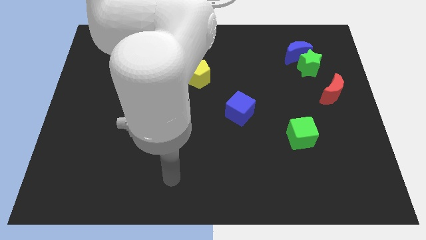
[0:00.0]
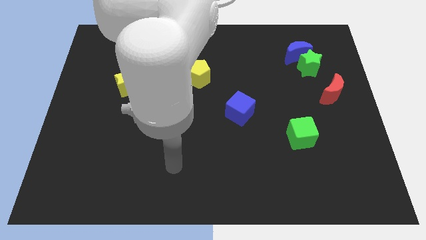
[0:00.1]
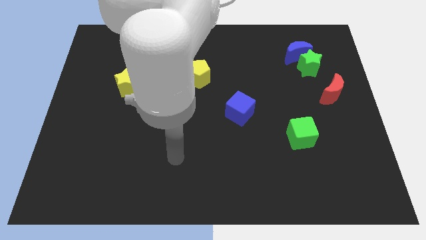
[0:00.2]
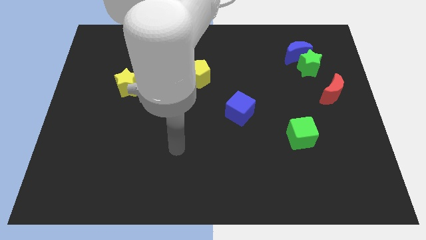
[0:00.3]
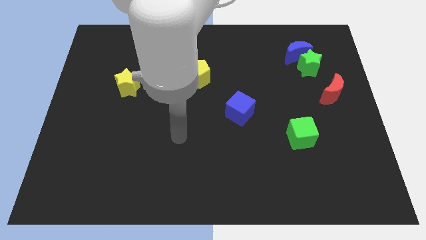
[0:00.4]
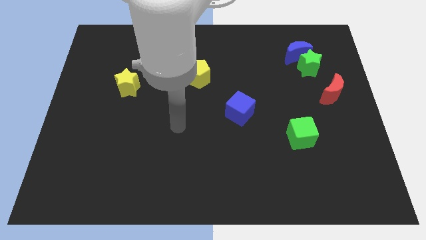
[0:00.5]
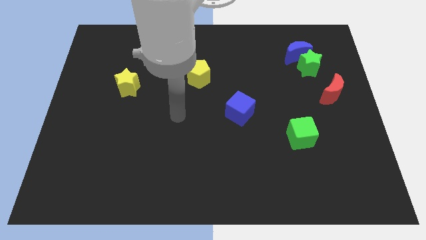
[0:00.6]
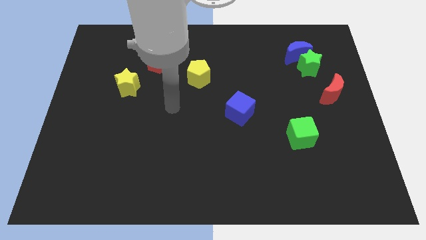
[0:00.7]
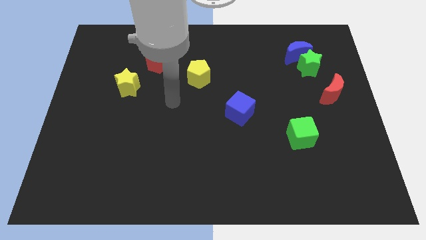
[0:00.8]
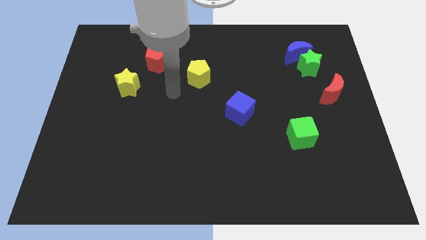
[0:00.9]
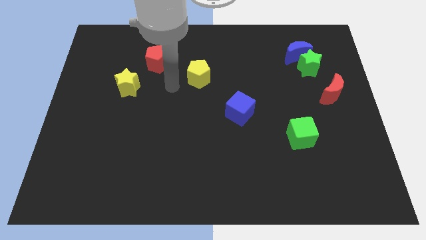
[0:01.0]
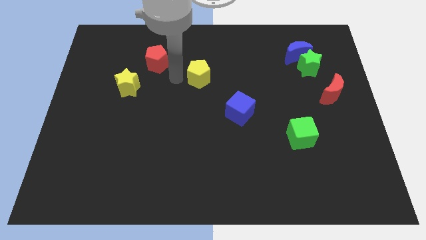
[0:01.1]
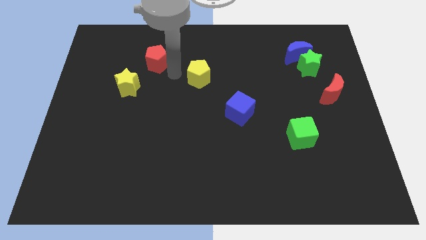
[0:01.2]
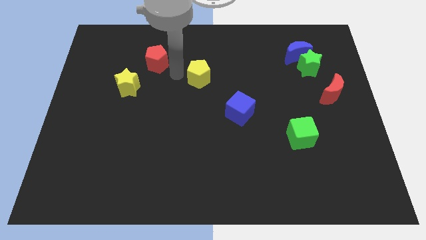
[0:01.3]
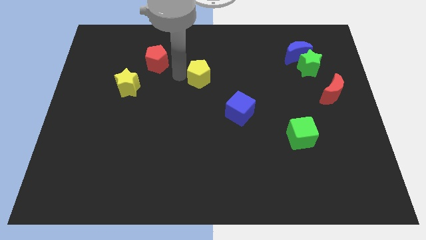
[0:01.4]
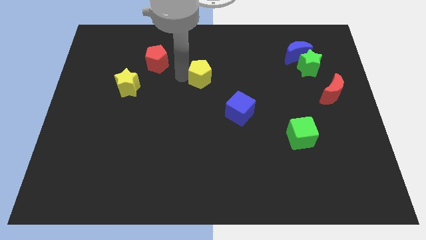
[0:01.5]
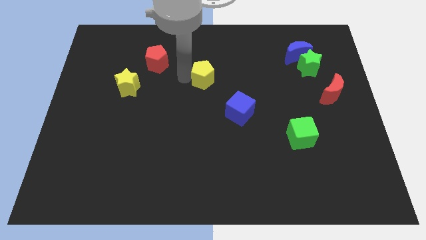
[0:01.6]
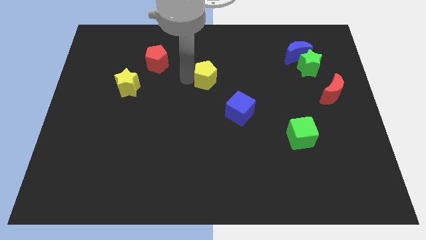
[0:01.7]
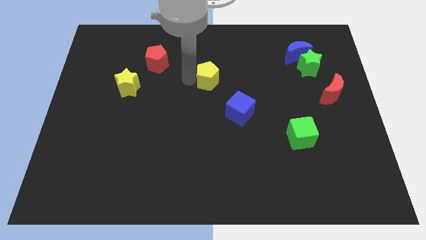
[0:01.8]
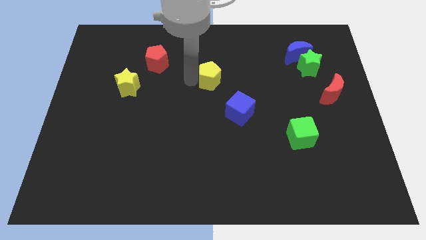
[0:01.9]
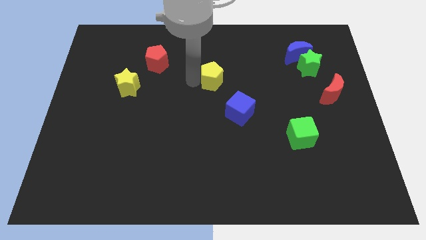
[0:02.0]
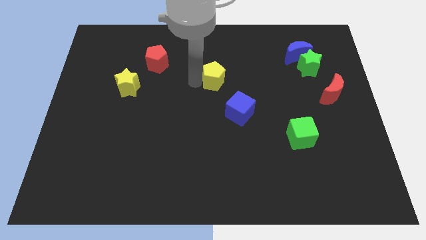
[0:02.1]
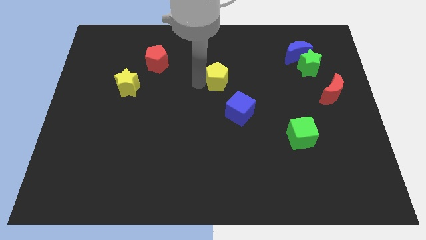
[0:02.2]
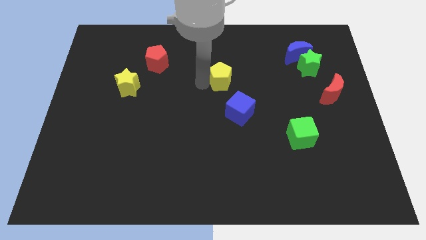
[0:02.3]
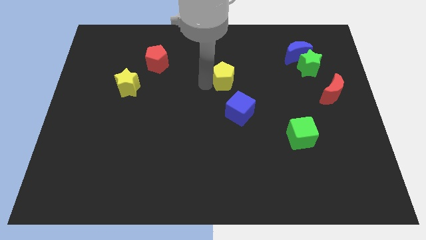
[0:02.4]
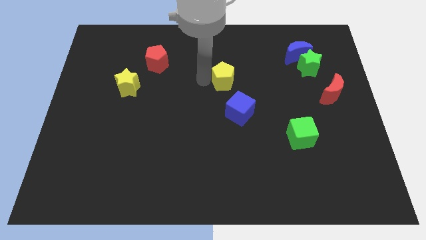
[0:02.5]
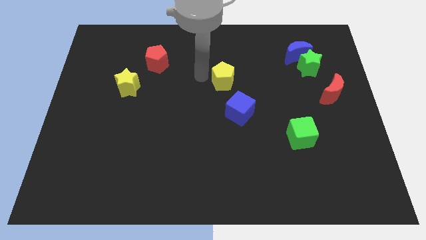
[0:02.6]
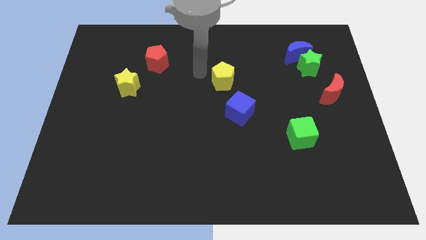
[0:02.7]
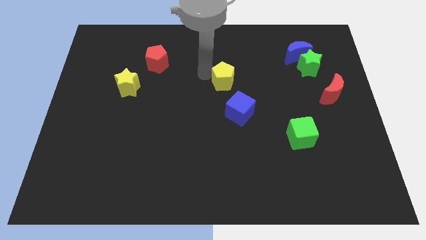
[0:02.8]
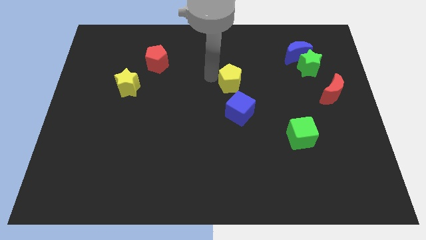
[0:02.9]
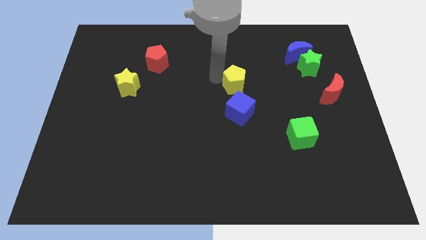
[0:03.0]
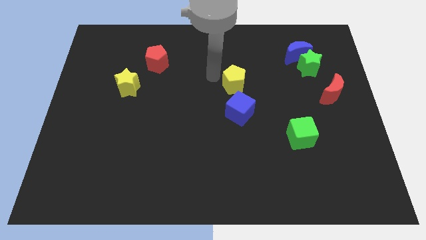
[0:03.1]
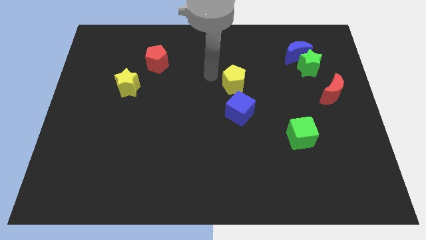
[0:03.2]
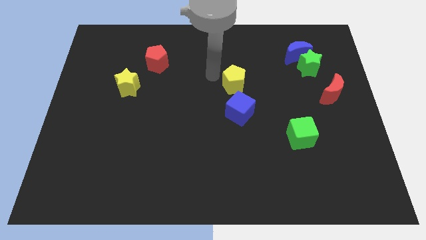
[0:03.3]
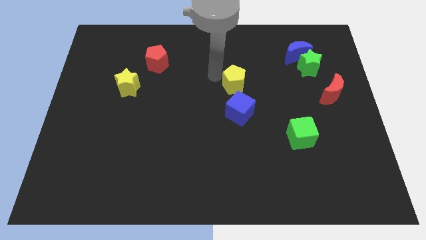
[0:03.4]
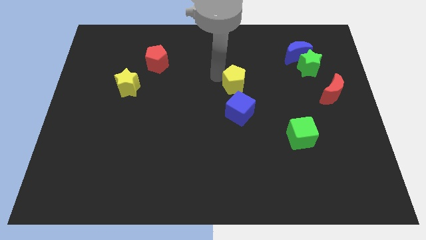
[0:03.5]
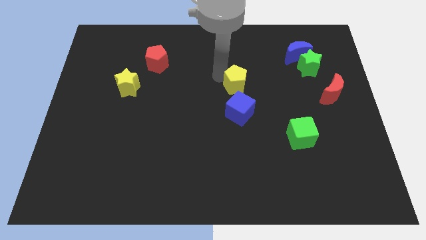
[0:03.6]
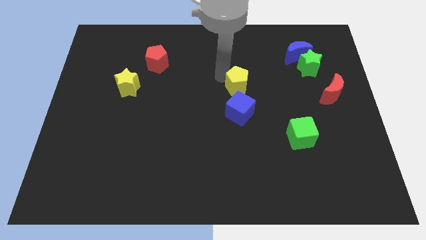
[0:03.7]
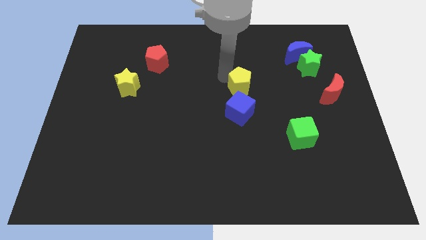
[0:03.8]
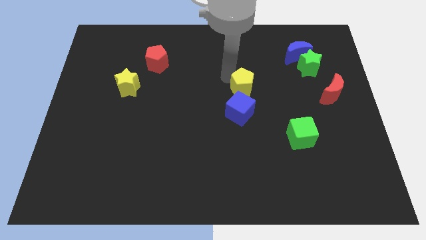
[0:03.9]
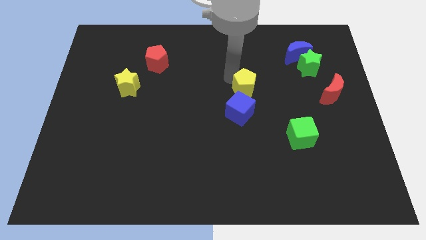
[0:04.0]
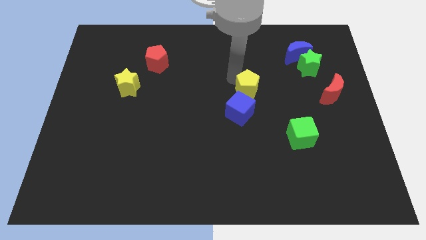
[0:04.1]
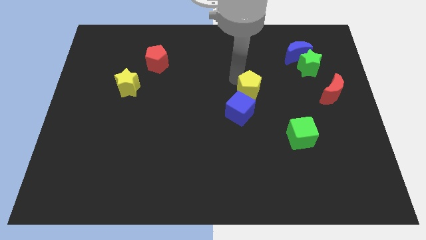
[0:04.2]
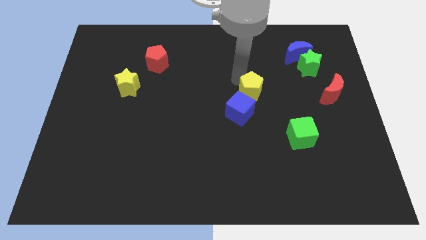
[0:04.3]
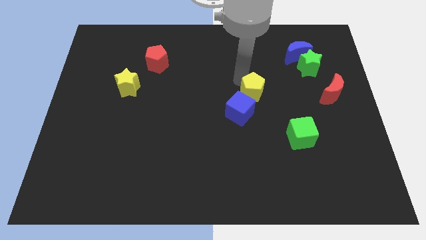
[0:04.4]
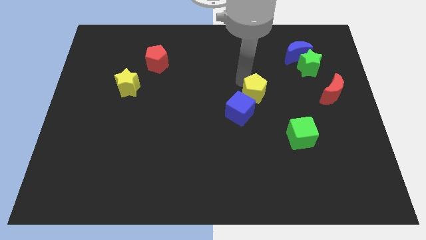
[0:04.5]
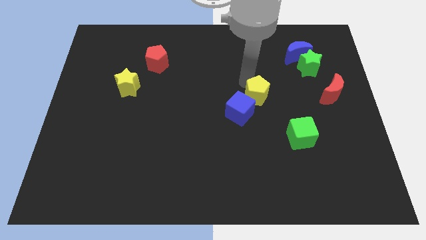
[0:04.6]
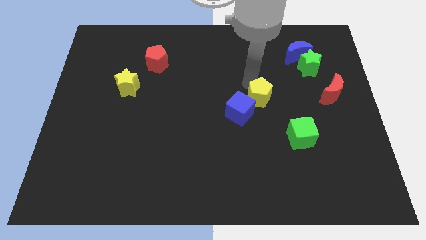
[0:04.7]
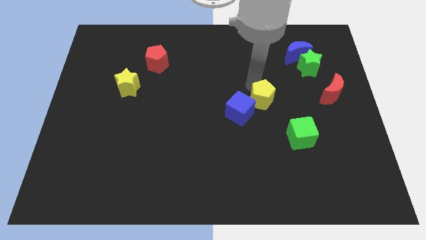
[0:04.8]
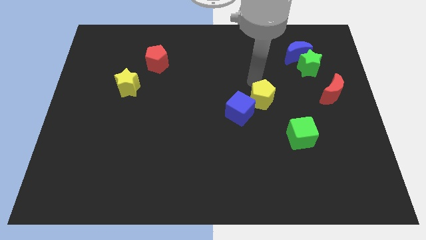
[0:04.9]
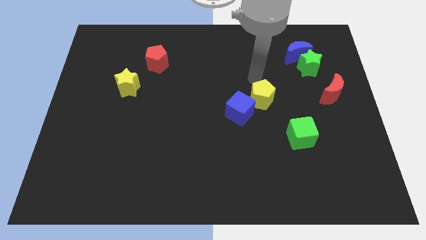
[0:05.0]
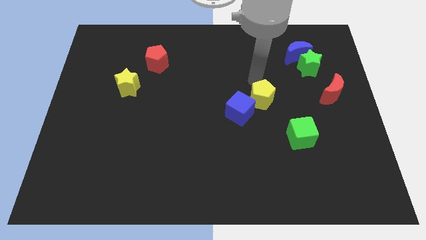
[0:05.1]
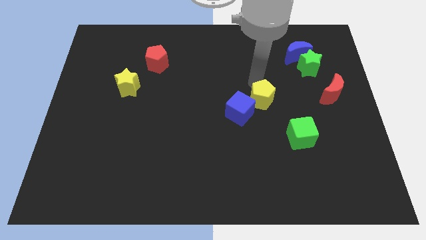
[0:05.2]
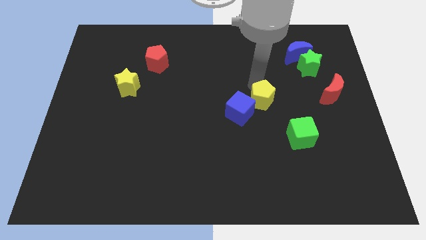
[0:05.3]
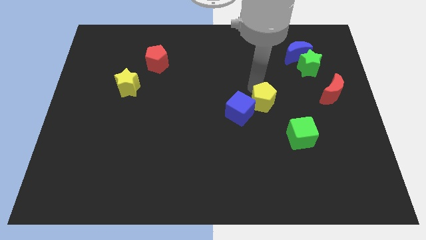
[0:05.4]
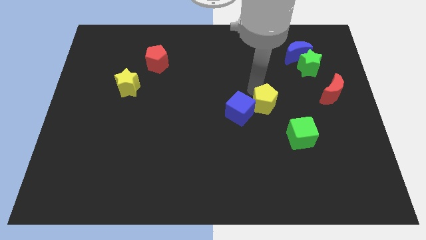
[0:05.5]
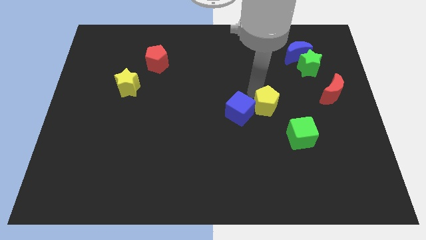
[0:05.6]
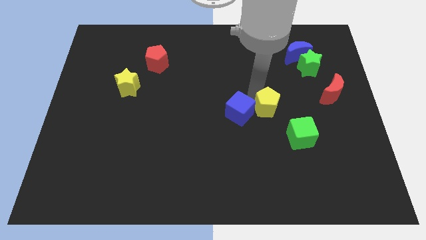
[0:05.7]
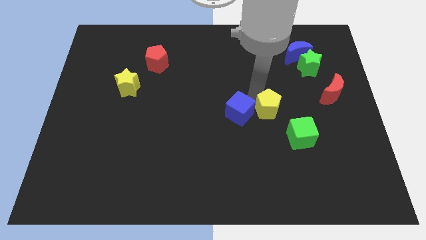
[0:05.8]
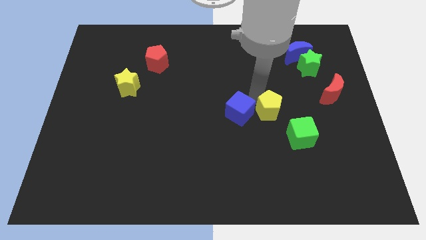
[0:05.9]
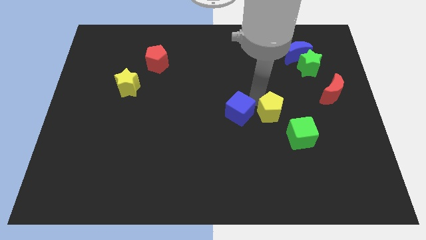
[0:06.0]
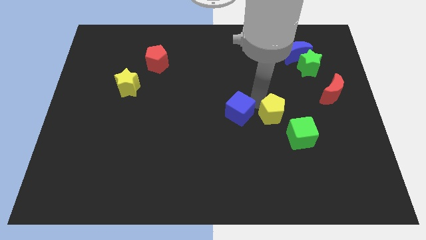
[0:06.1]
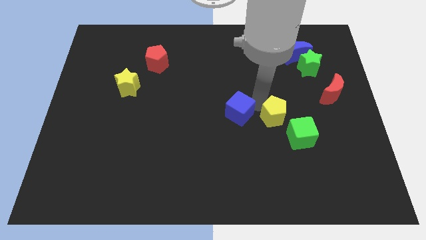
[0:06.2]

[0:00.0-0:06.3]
slide the yellow pentagon downwards and right

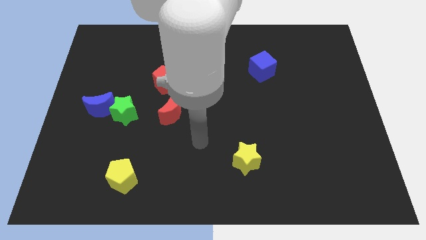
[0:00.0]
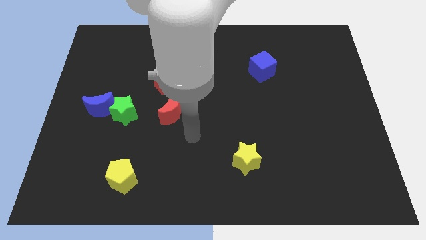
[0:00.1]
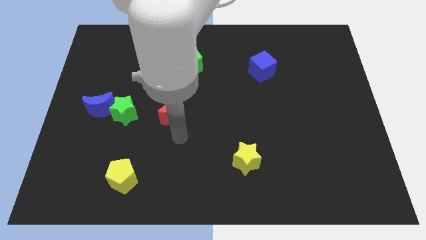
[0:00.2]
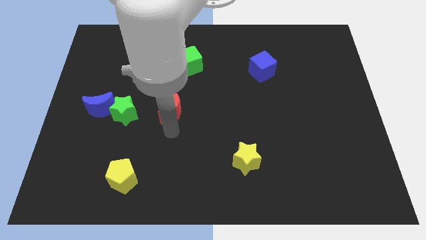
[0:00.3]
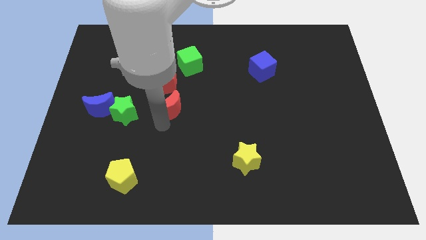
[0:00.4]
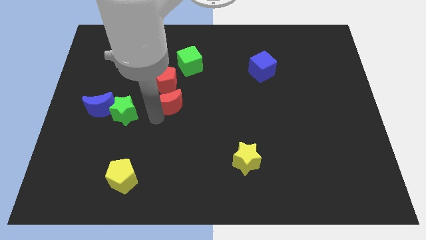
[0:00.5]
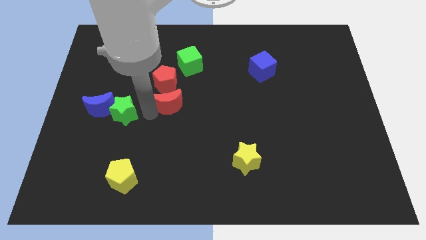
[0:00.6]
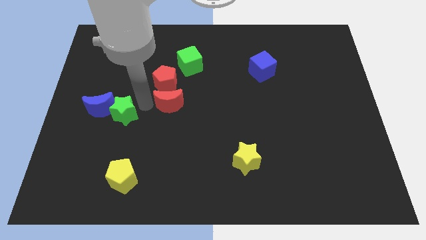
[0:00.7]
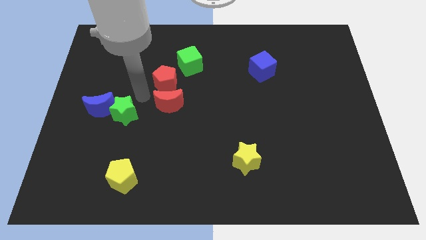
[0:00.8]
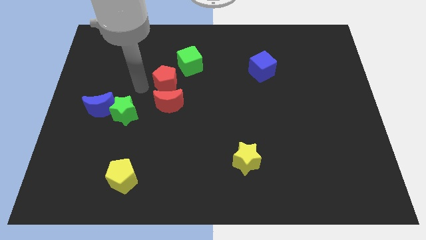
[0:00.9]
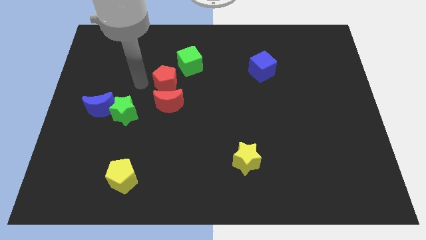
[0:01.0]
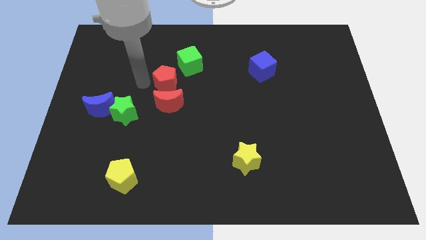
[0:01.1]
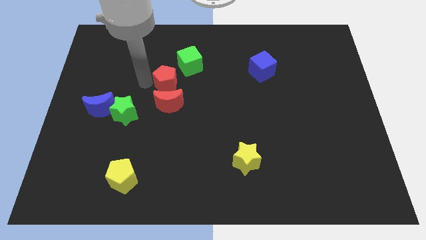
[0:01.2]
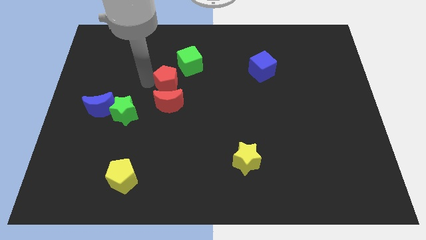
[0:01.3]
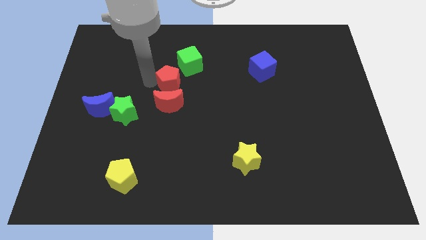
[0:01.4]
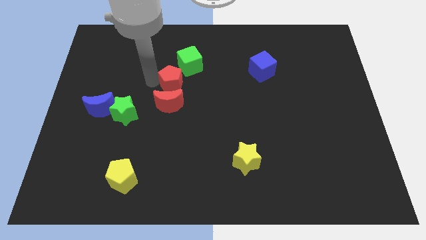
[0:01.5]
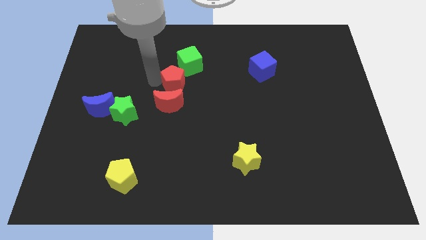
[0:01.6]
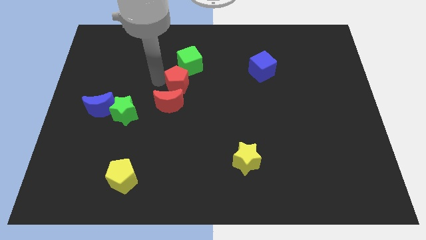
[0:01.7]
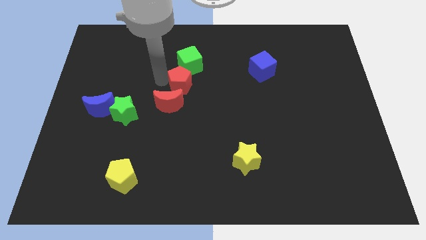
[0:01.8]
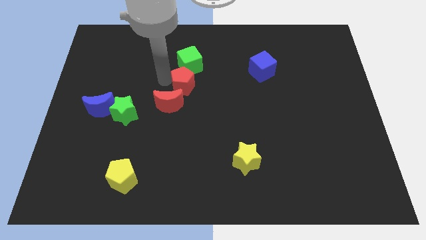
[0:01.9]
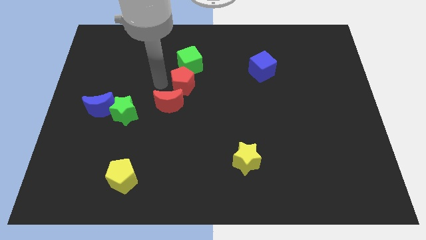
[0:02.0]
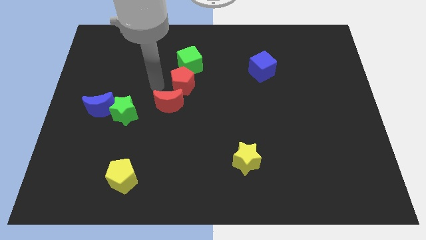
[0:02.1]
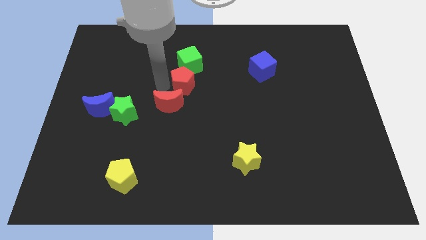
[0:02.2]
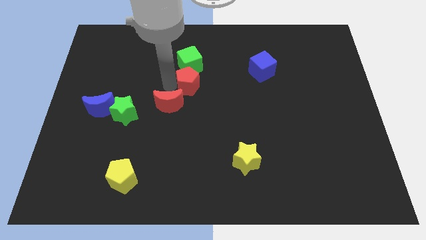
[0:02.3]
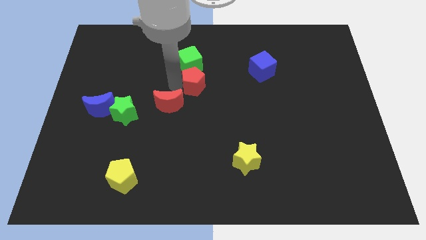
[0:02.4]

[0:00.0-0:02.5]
push the red pentagon a little bit to the right
